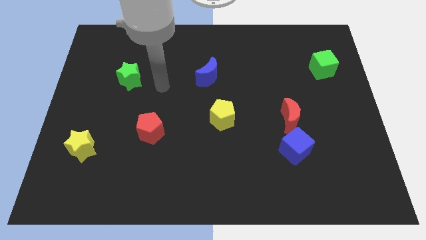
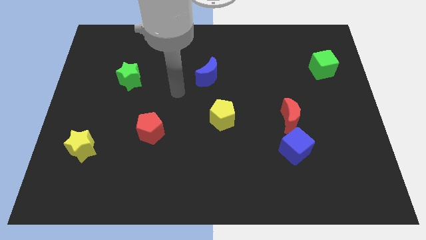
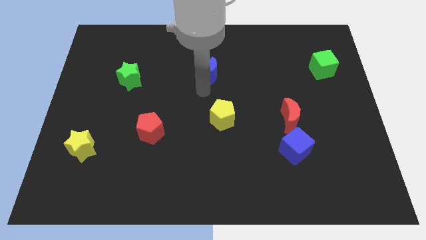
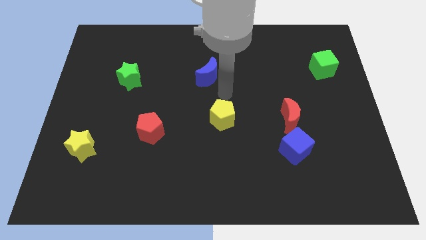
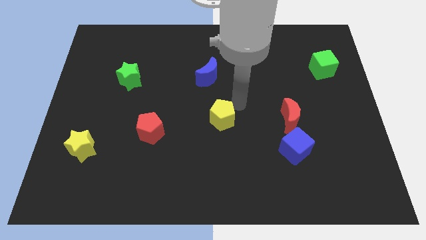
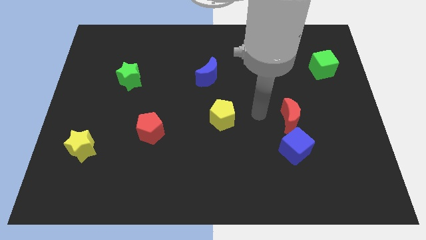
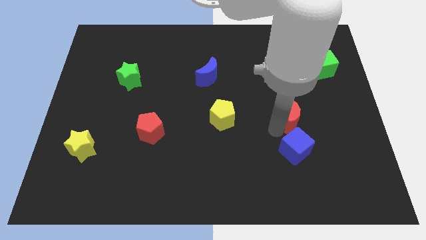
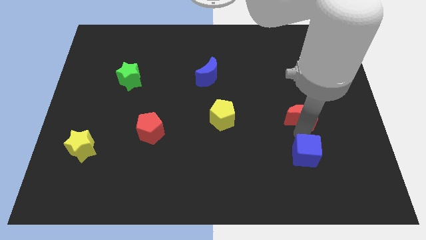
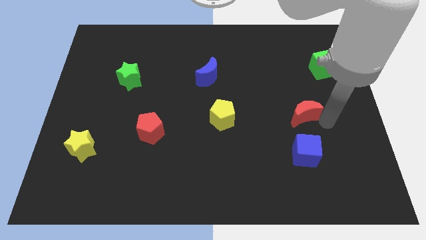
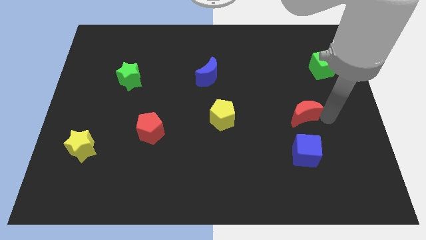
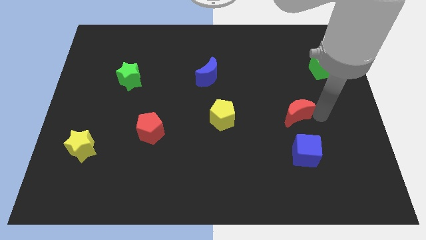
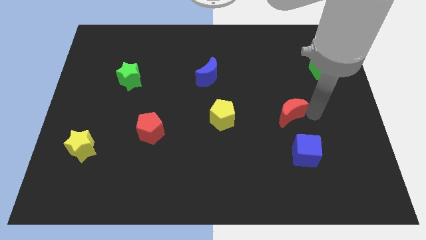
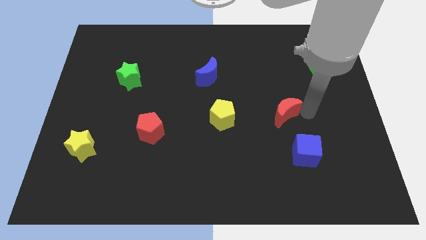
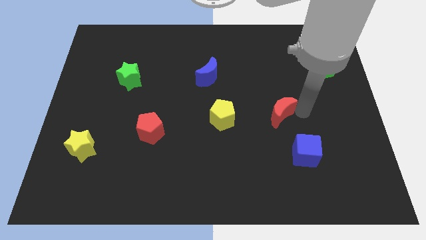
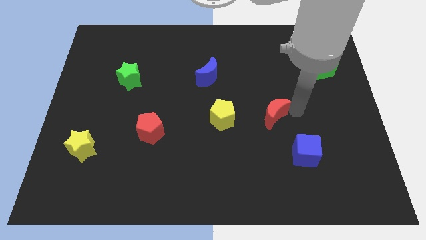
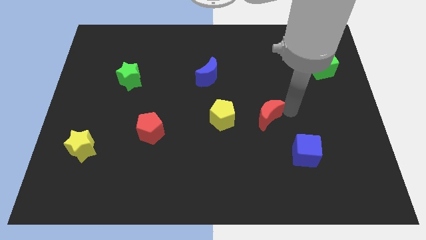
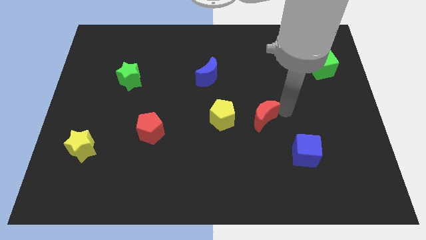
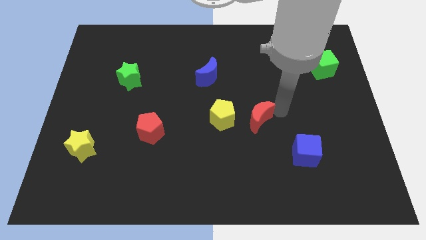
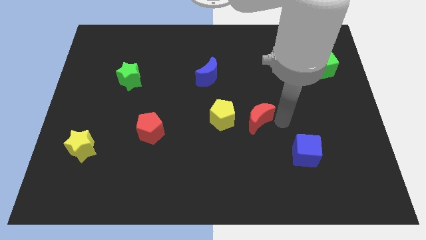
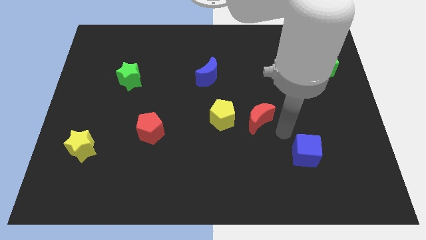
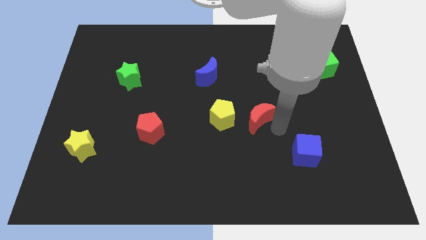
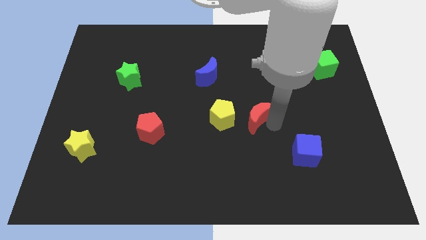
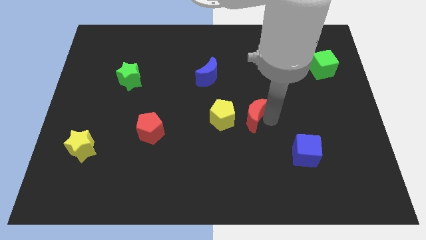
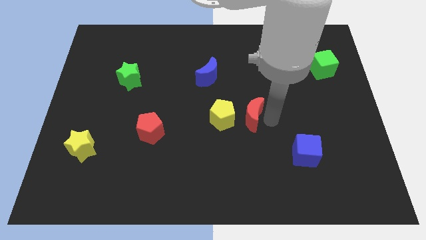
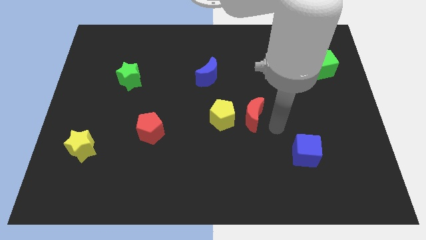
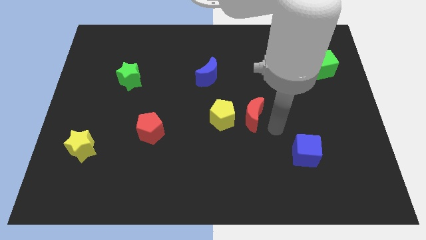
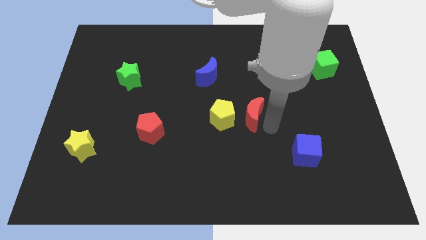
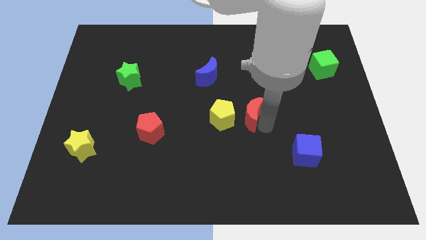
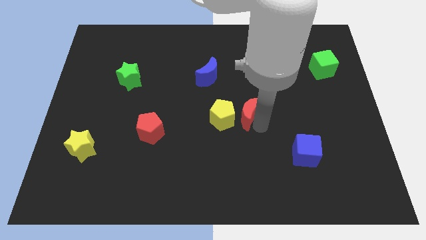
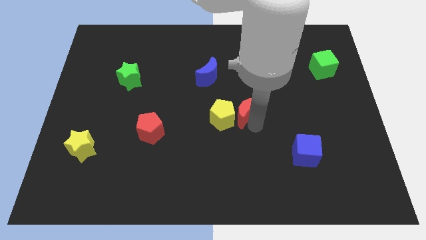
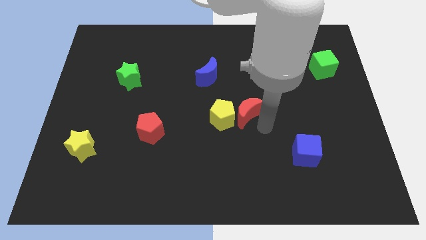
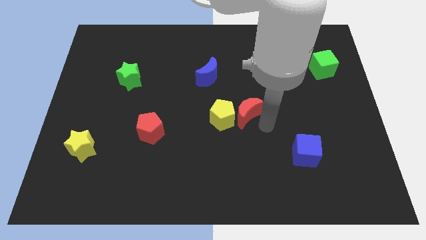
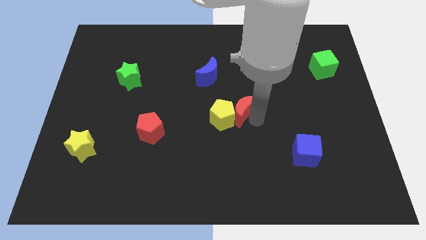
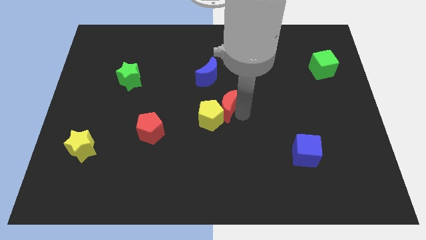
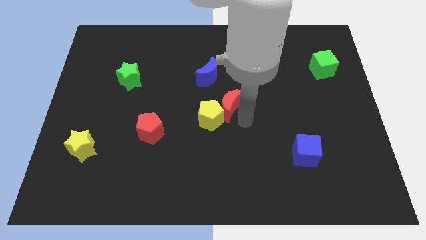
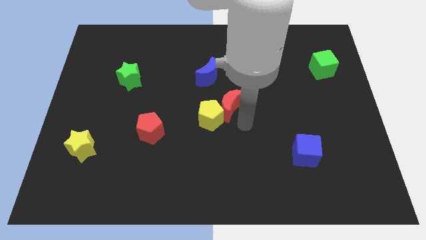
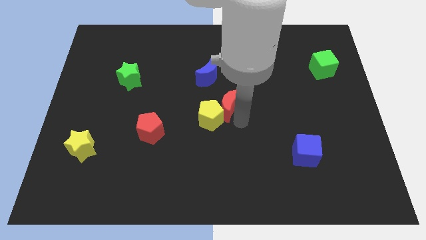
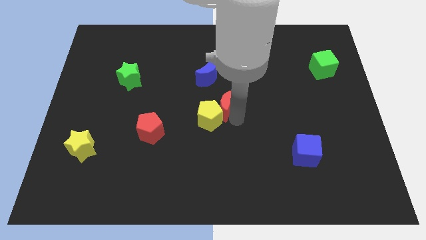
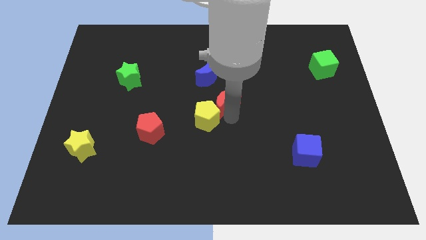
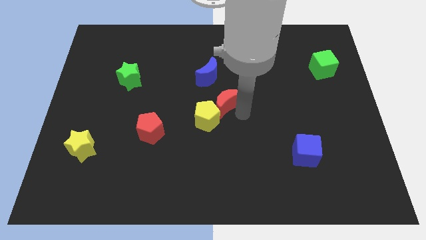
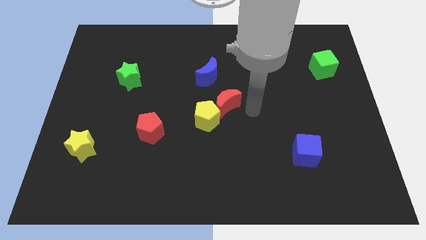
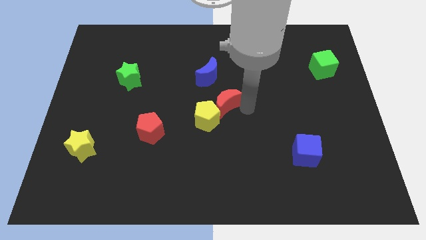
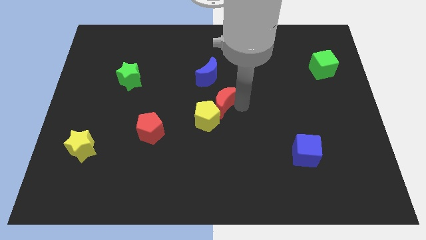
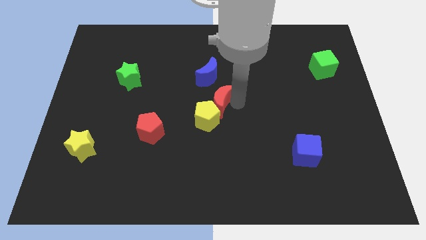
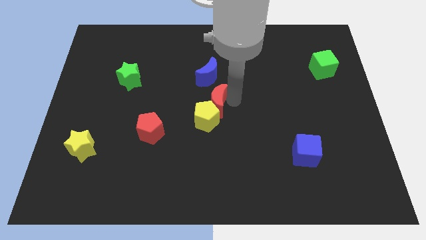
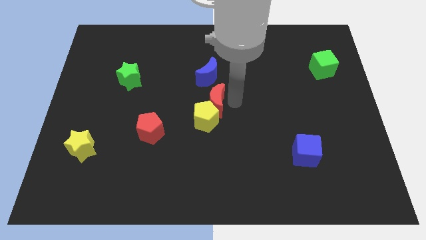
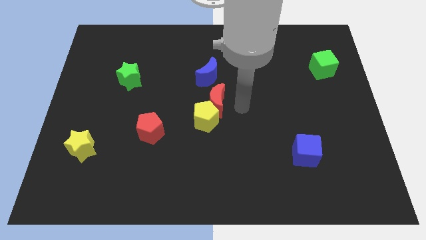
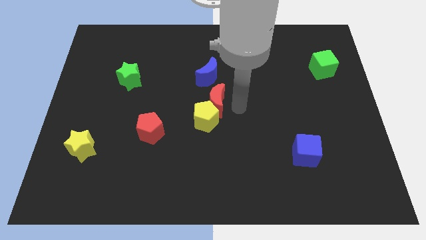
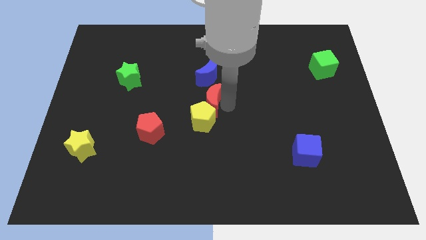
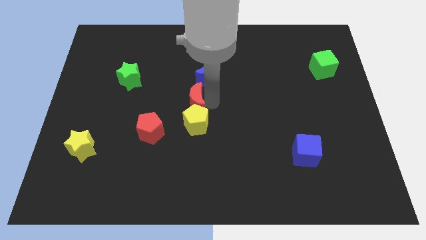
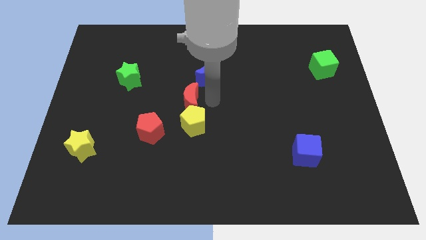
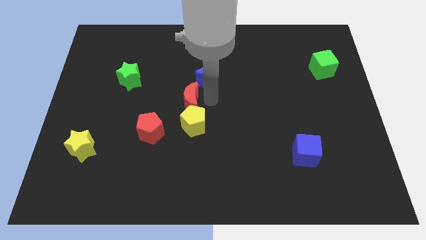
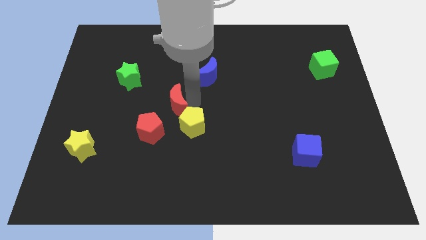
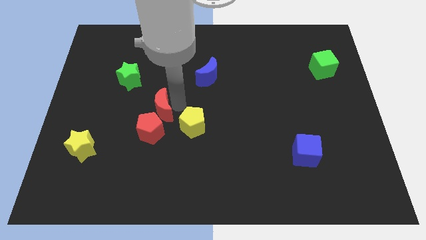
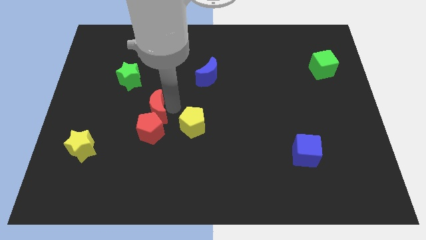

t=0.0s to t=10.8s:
slide the red moon to the top left side of the red pentagon

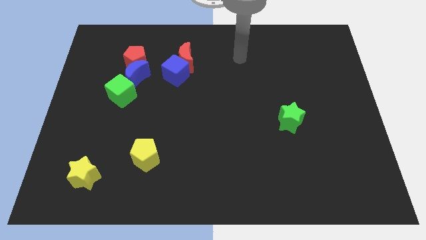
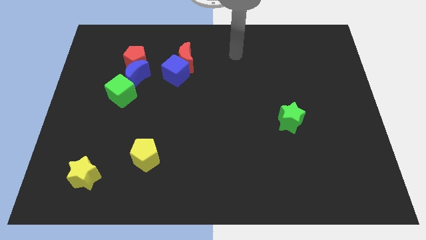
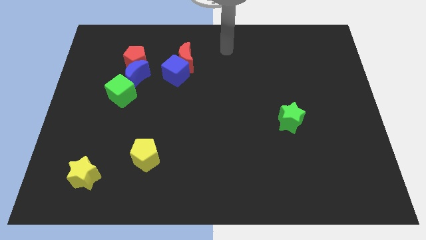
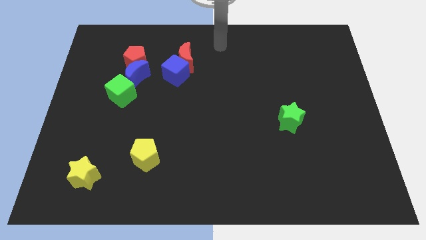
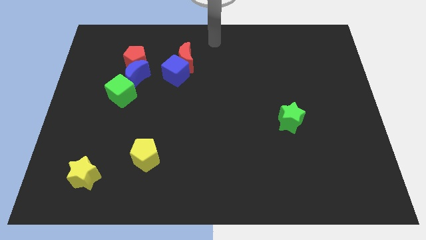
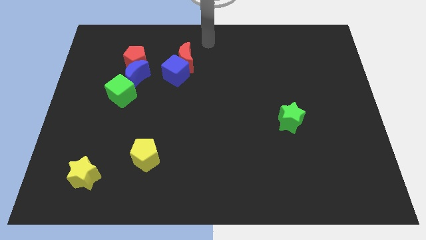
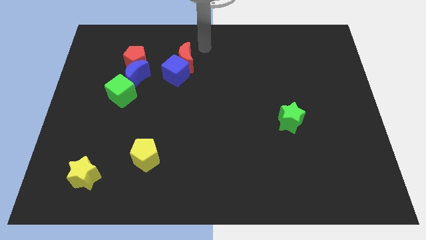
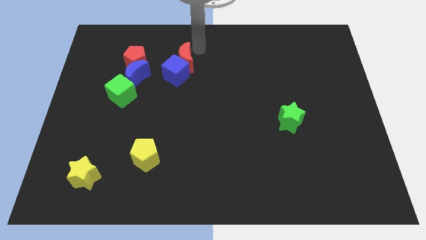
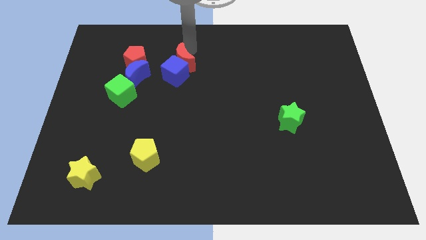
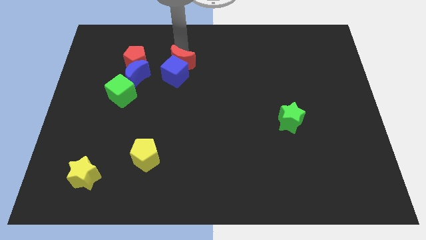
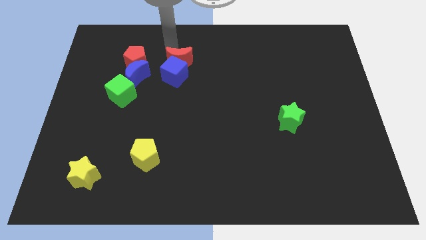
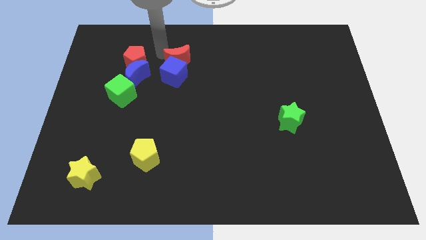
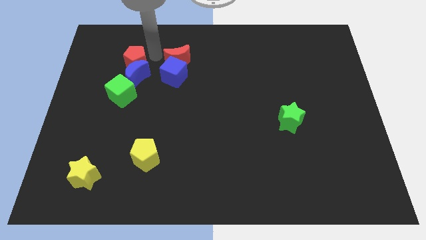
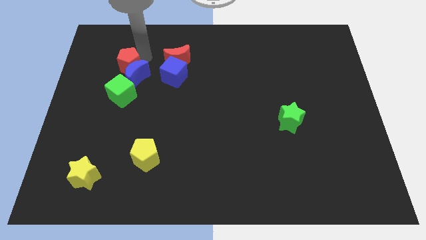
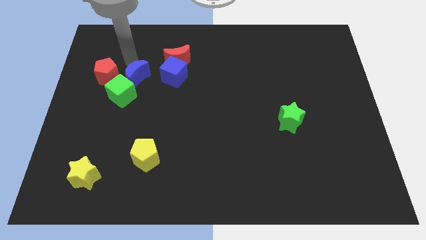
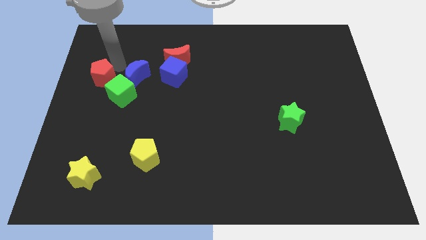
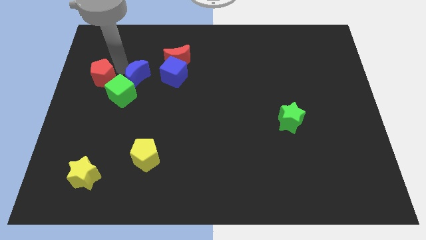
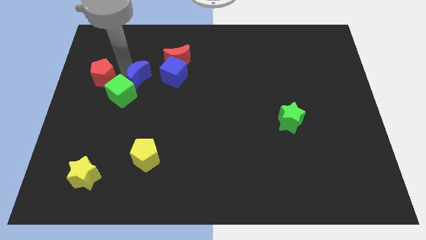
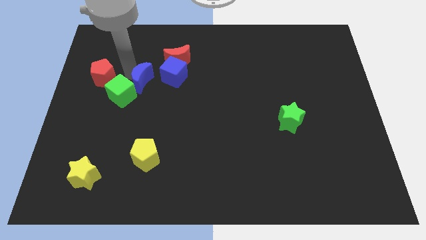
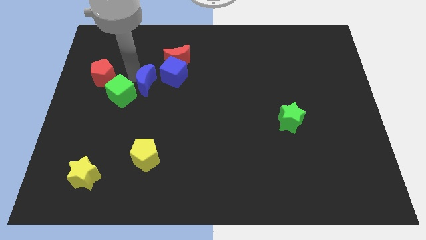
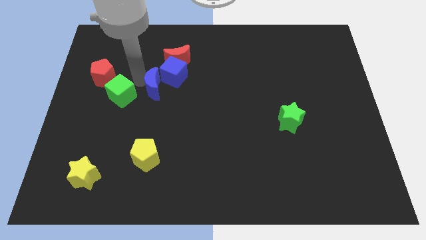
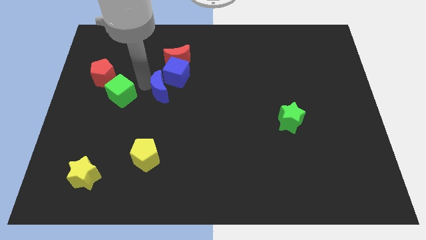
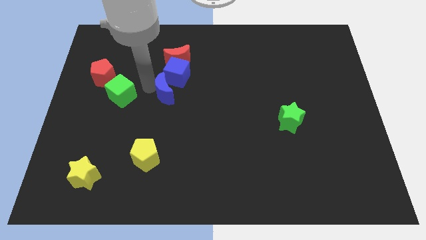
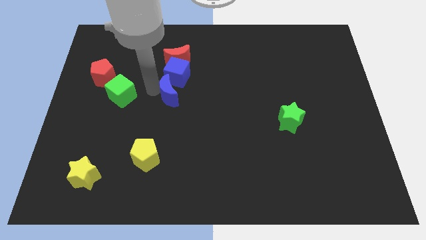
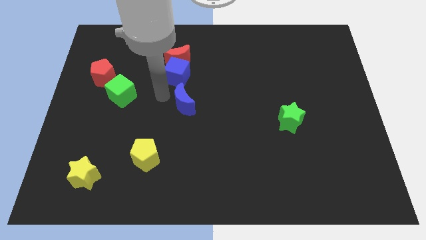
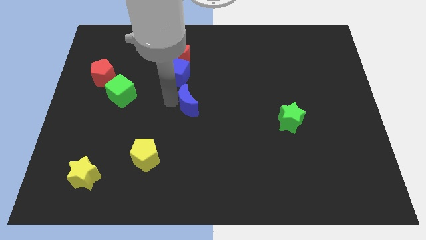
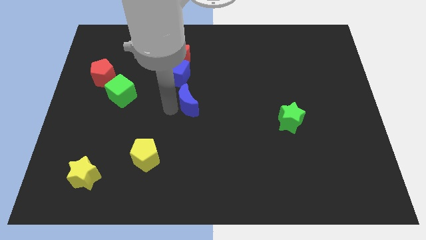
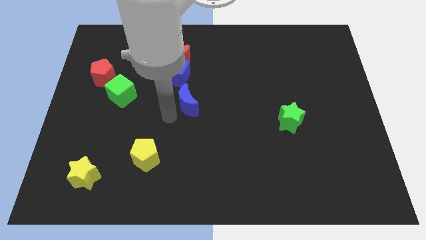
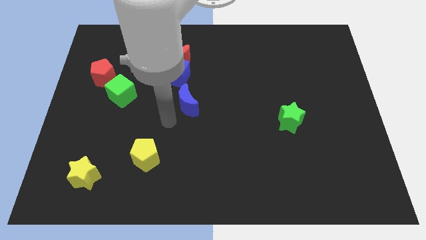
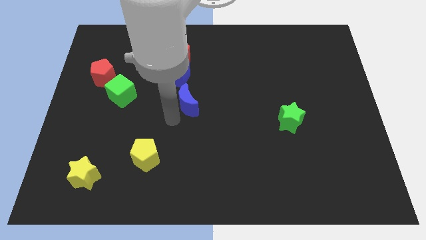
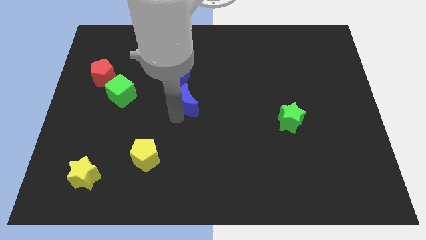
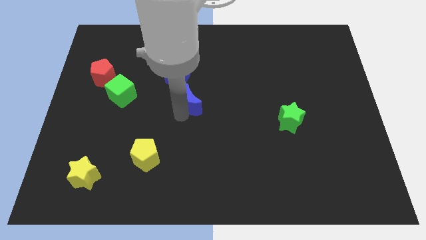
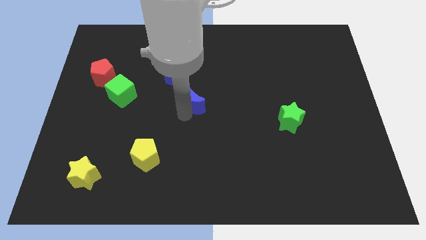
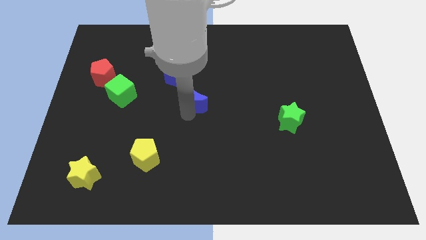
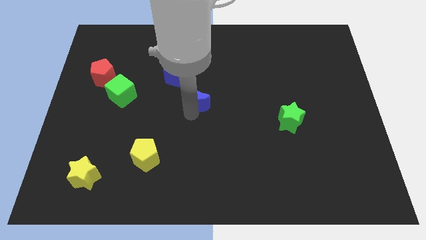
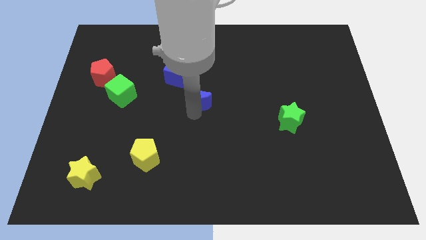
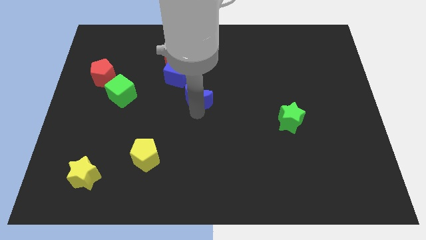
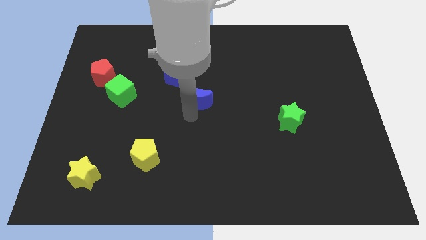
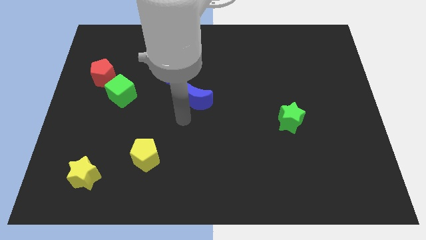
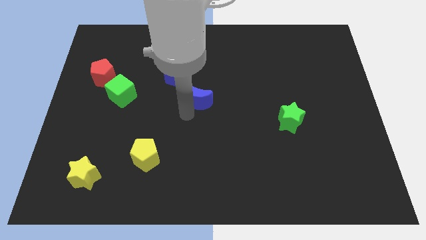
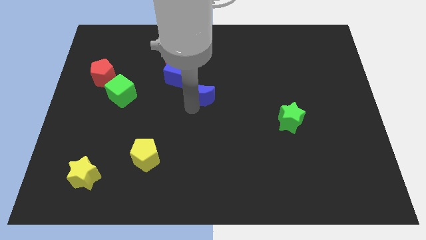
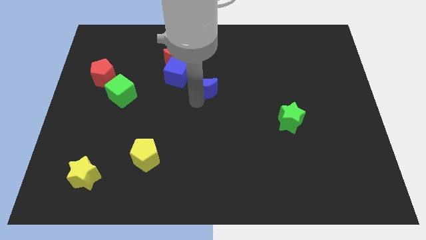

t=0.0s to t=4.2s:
put the blue moon to the right of the blue cube
